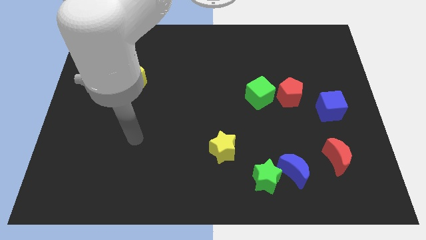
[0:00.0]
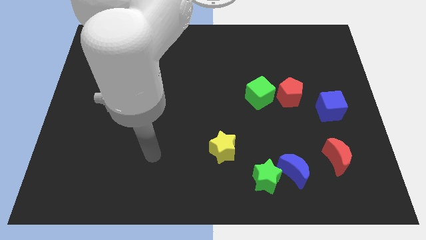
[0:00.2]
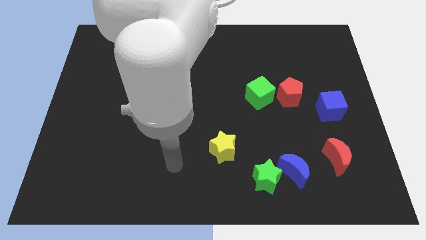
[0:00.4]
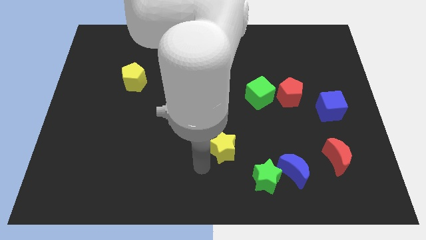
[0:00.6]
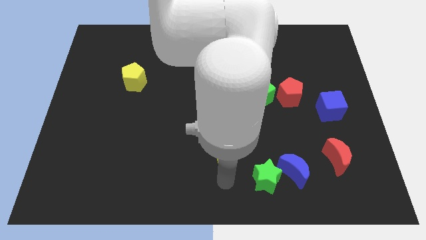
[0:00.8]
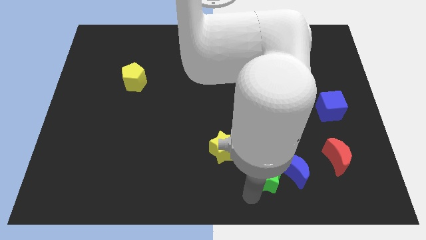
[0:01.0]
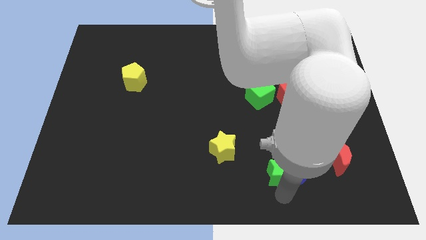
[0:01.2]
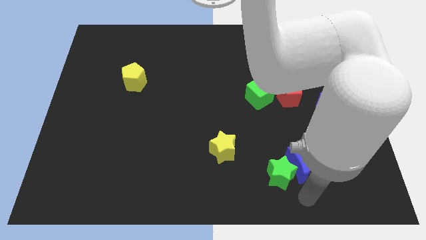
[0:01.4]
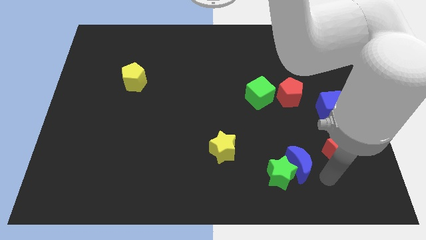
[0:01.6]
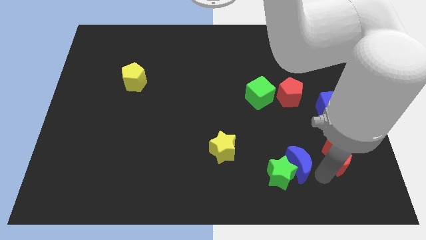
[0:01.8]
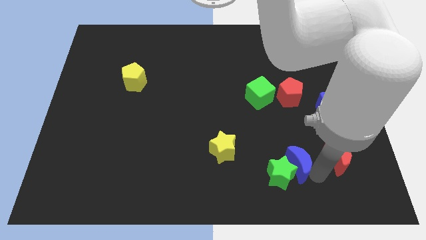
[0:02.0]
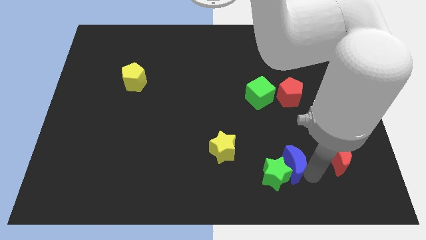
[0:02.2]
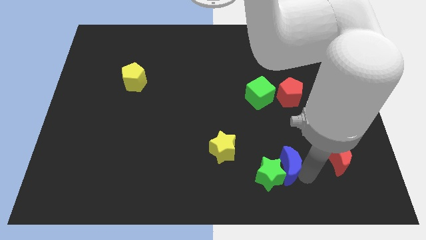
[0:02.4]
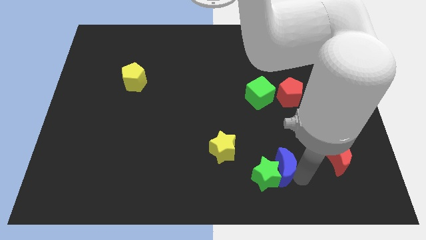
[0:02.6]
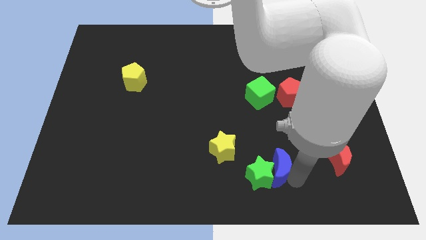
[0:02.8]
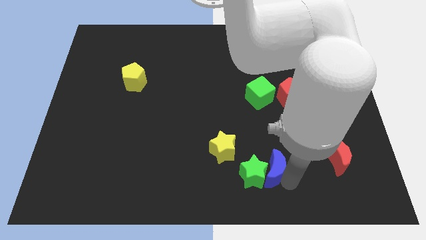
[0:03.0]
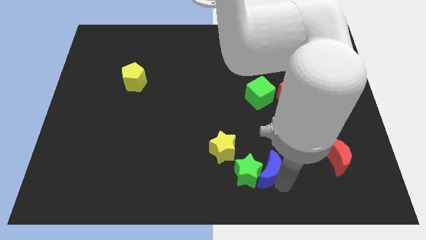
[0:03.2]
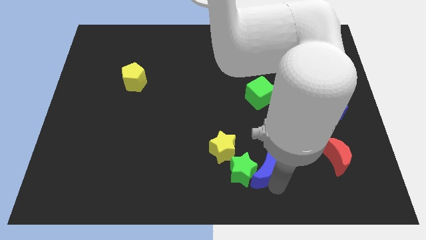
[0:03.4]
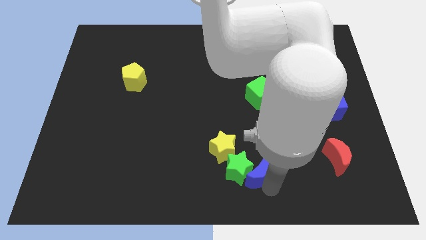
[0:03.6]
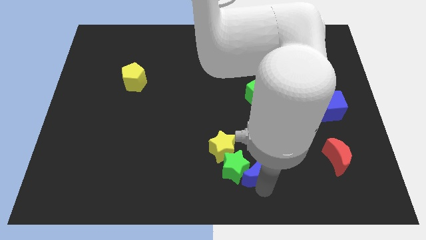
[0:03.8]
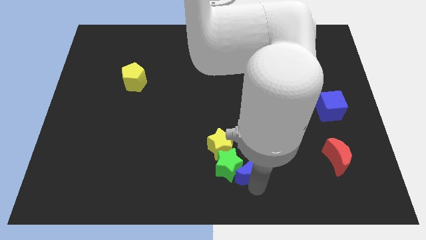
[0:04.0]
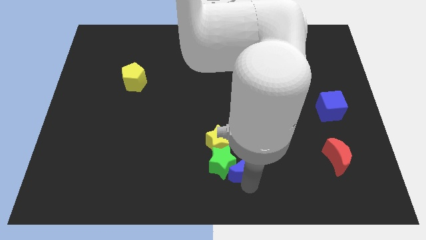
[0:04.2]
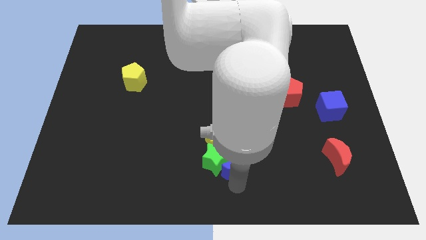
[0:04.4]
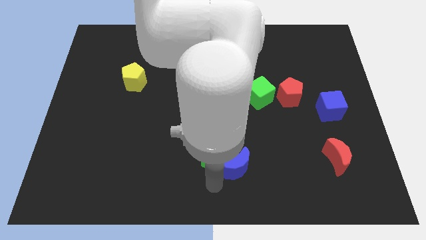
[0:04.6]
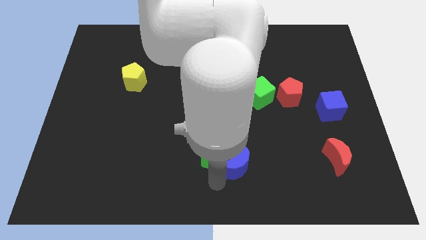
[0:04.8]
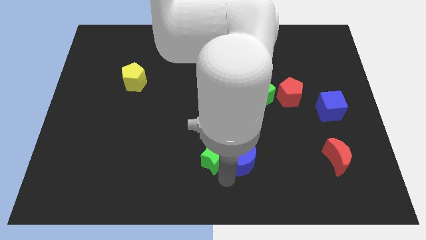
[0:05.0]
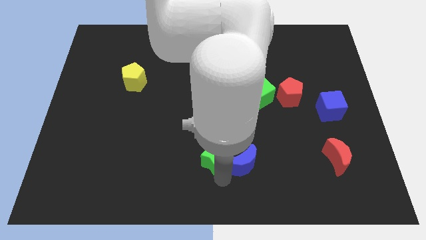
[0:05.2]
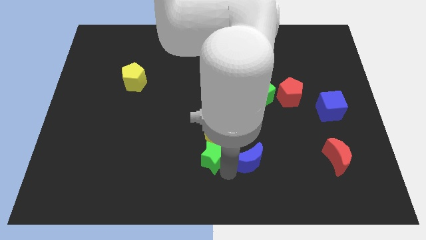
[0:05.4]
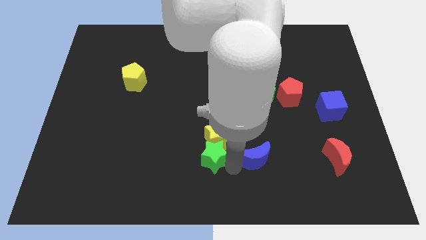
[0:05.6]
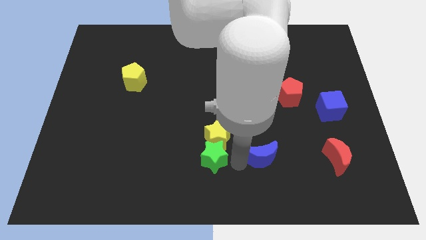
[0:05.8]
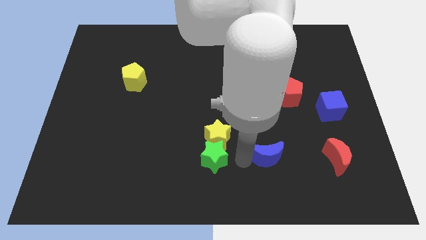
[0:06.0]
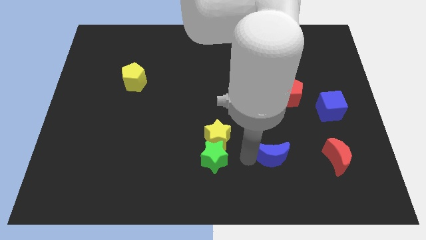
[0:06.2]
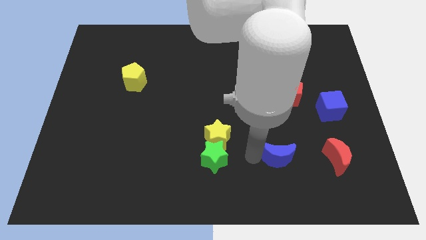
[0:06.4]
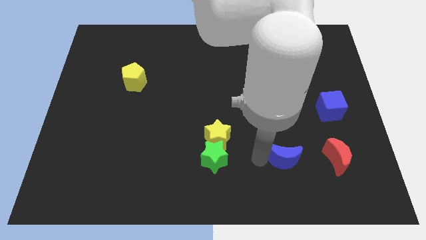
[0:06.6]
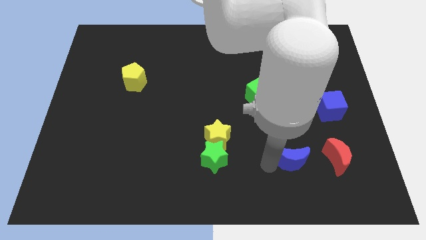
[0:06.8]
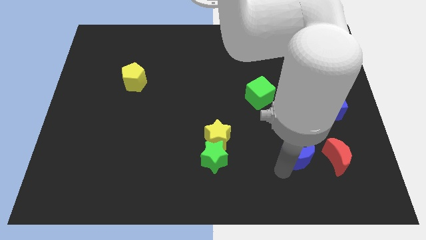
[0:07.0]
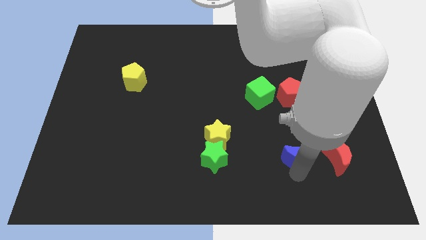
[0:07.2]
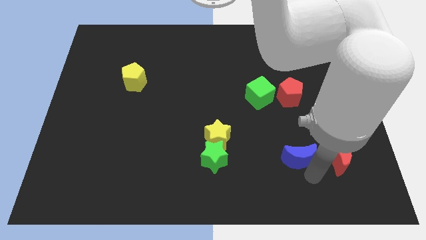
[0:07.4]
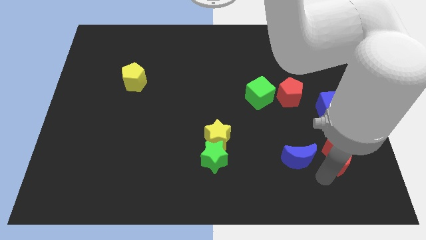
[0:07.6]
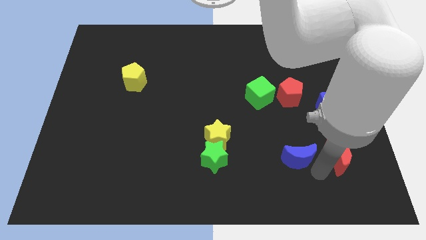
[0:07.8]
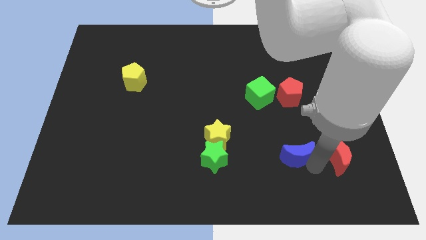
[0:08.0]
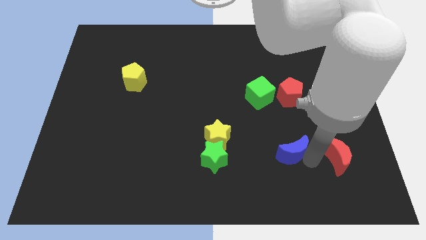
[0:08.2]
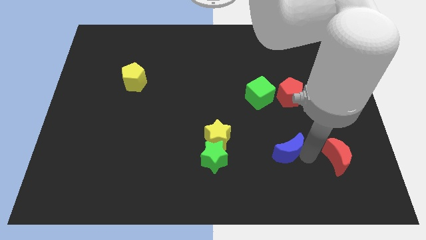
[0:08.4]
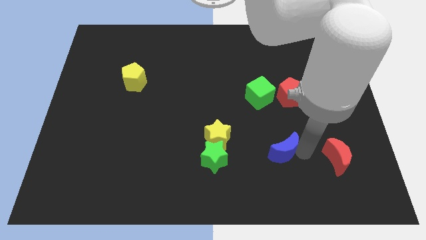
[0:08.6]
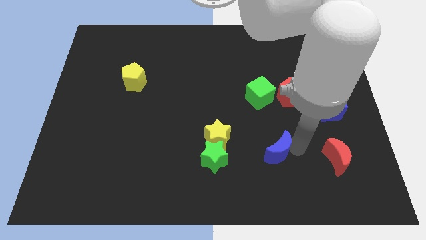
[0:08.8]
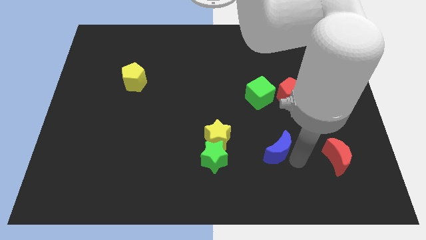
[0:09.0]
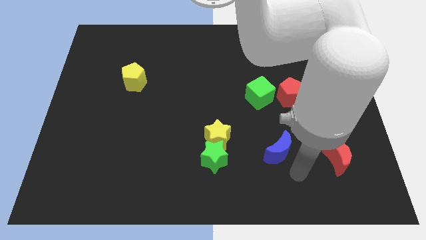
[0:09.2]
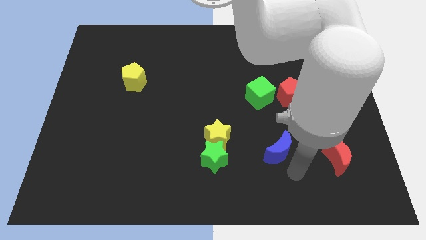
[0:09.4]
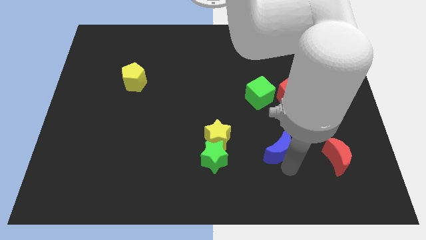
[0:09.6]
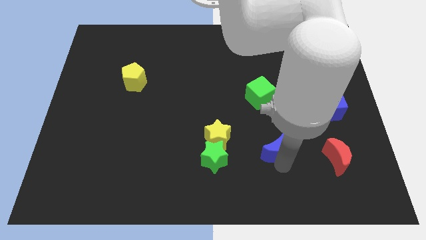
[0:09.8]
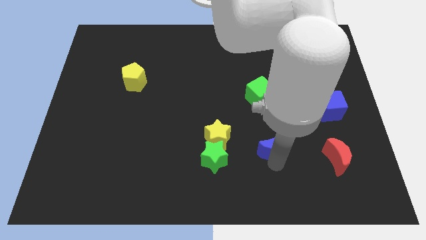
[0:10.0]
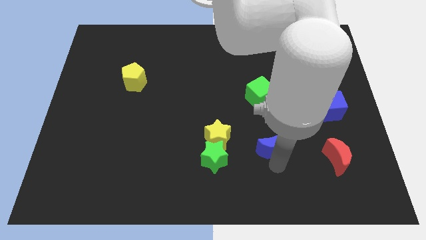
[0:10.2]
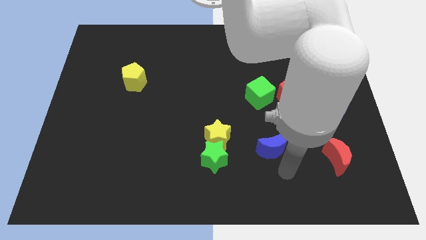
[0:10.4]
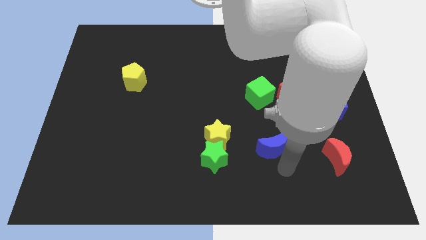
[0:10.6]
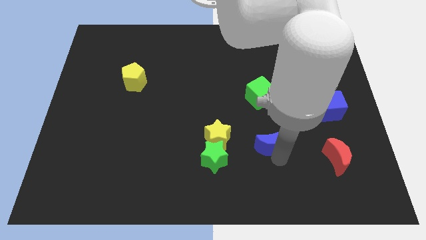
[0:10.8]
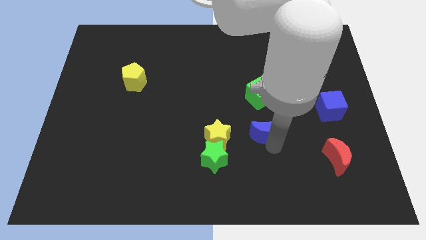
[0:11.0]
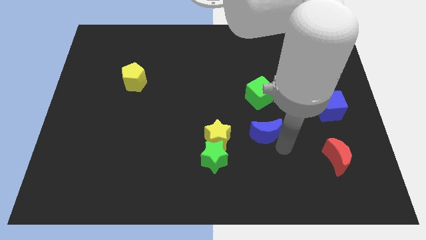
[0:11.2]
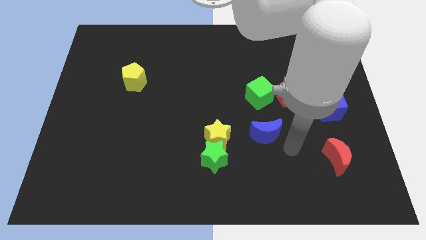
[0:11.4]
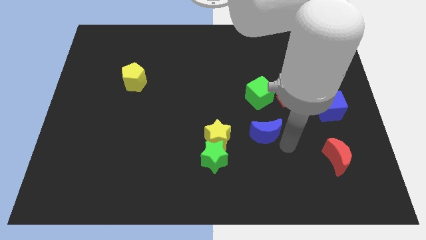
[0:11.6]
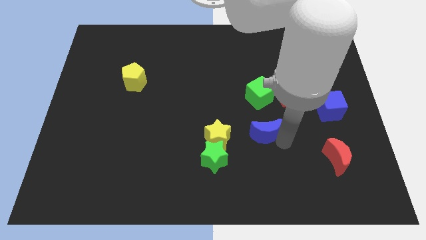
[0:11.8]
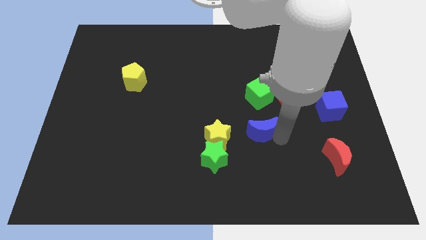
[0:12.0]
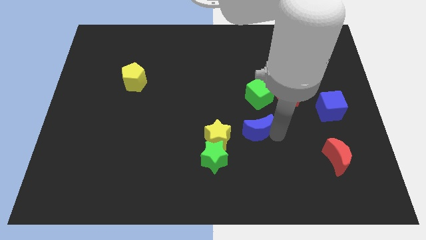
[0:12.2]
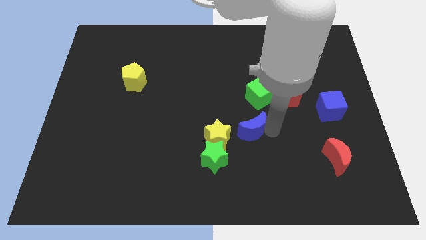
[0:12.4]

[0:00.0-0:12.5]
push the blue moon to the middle of the board
